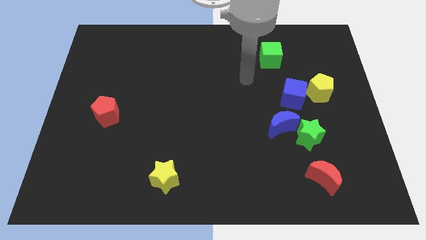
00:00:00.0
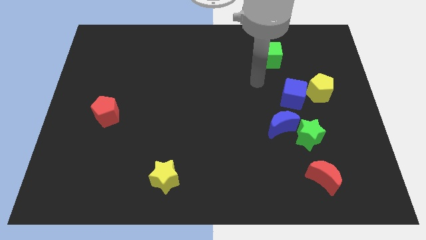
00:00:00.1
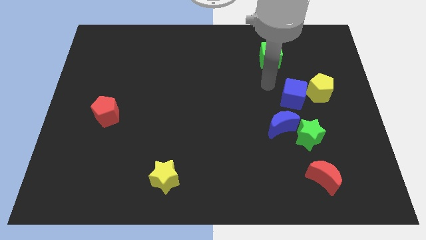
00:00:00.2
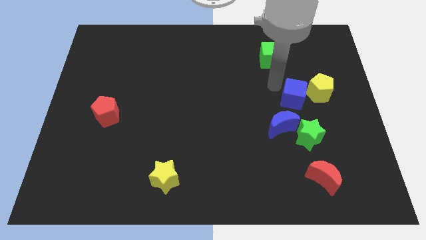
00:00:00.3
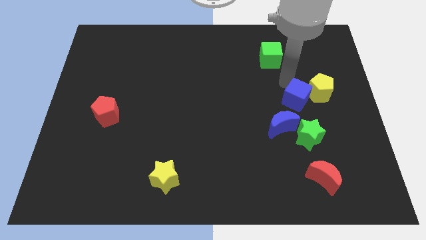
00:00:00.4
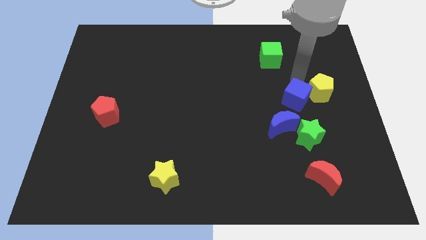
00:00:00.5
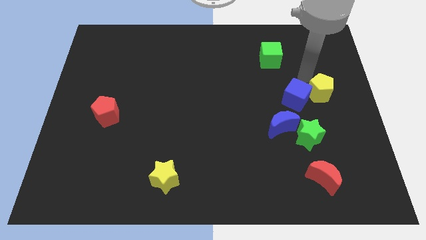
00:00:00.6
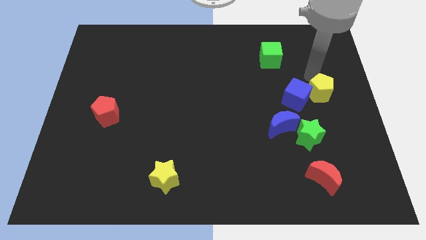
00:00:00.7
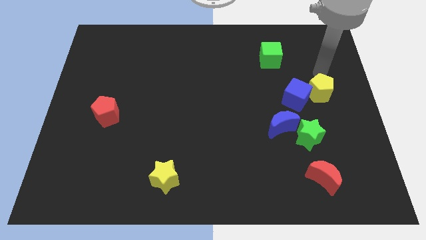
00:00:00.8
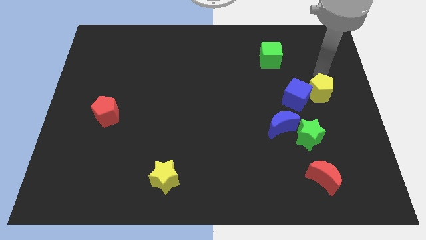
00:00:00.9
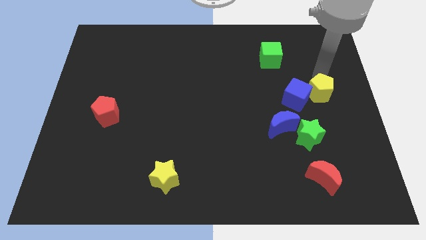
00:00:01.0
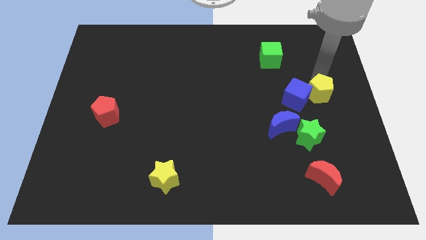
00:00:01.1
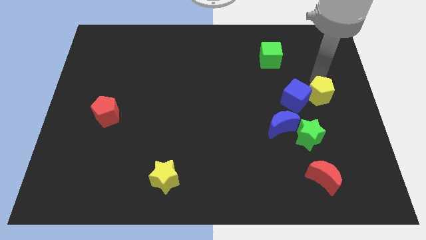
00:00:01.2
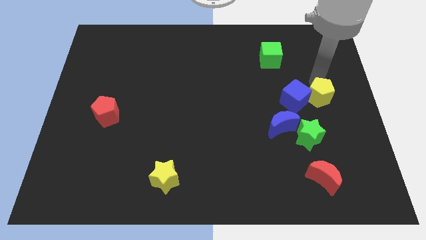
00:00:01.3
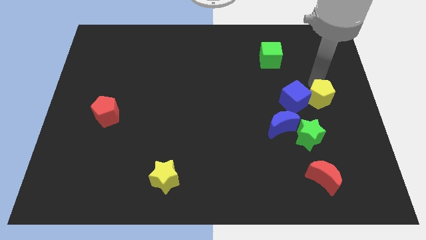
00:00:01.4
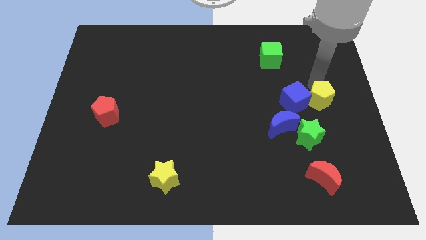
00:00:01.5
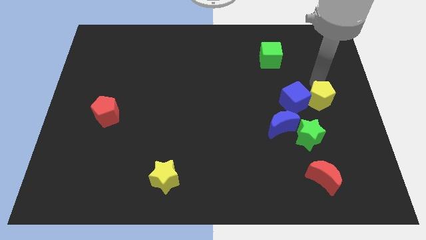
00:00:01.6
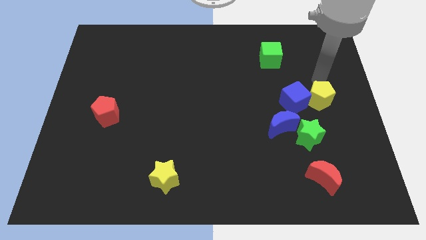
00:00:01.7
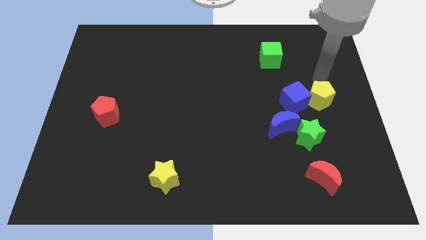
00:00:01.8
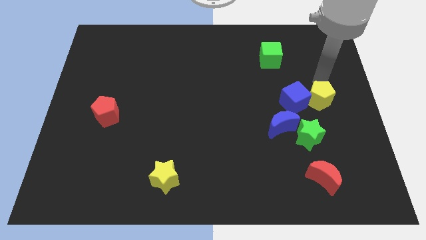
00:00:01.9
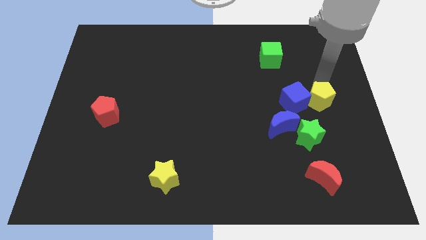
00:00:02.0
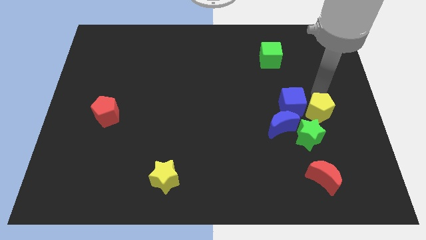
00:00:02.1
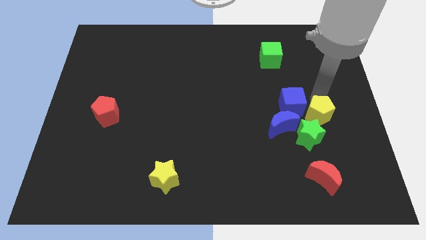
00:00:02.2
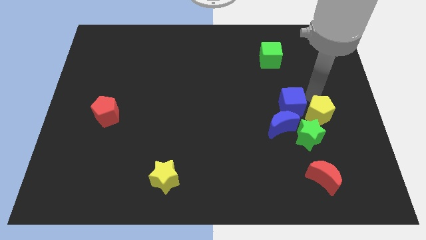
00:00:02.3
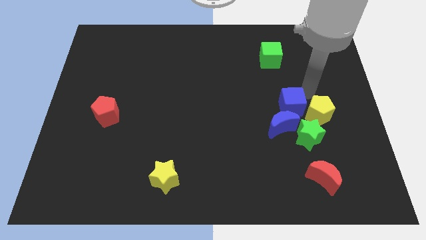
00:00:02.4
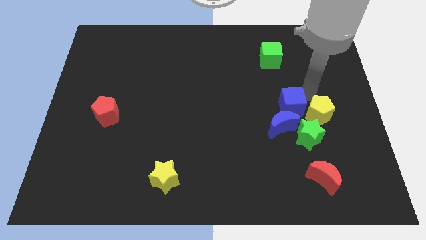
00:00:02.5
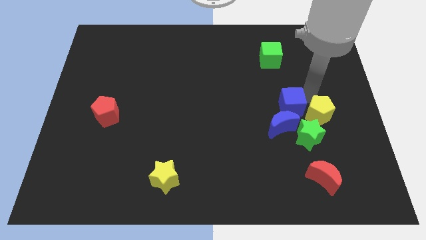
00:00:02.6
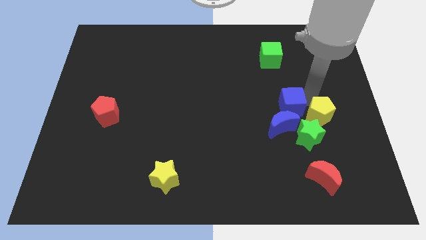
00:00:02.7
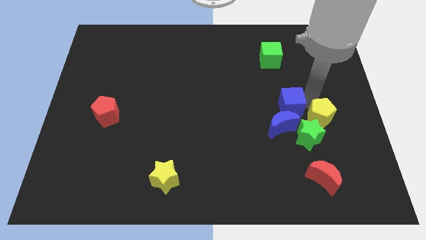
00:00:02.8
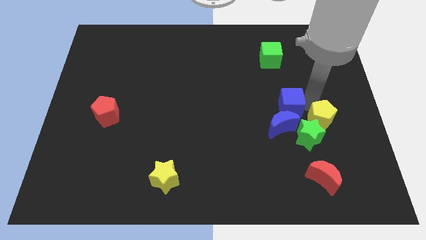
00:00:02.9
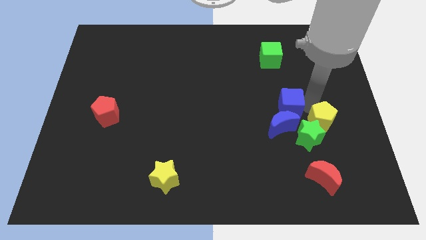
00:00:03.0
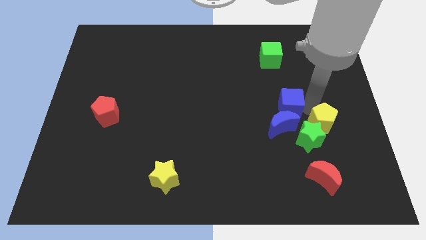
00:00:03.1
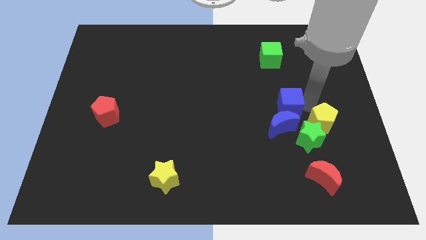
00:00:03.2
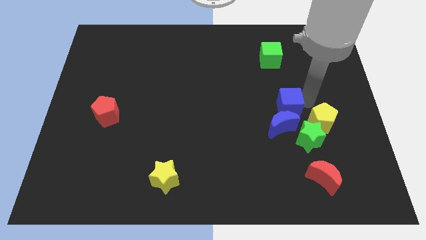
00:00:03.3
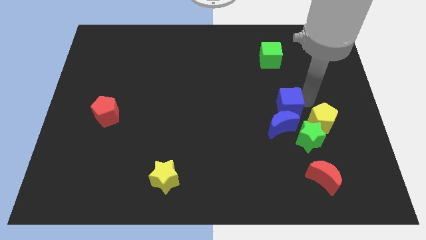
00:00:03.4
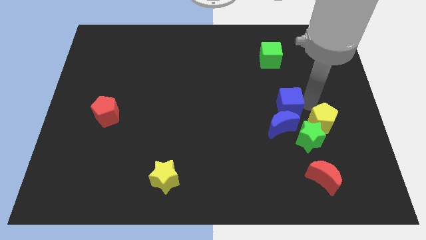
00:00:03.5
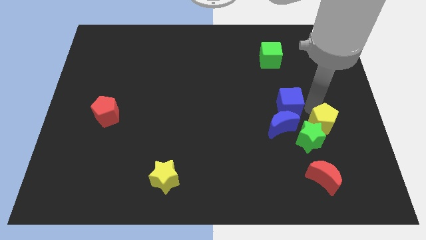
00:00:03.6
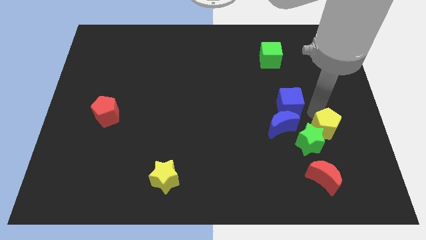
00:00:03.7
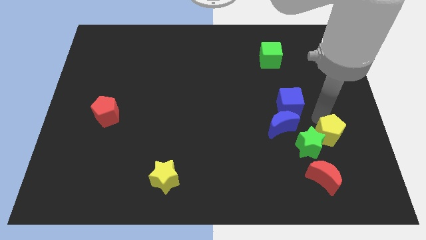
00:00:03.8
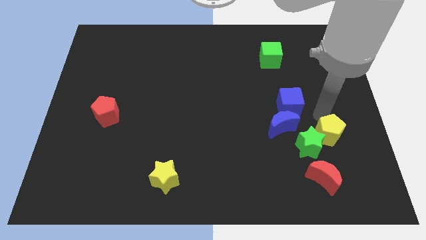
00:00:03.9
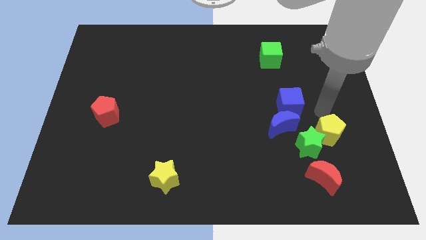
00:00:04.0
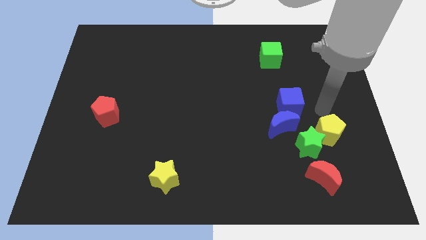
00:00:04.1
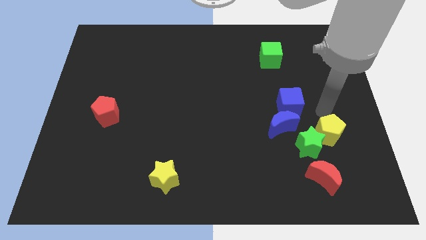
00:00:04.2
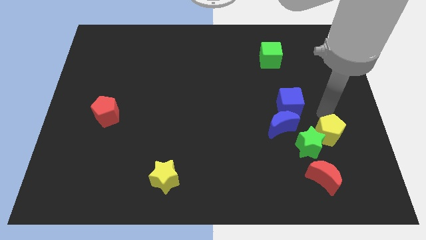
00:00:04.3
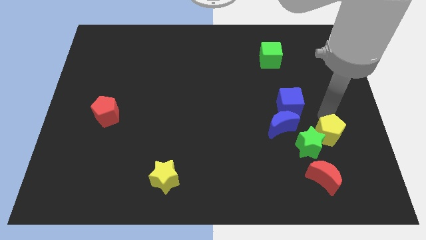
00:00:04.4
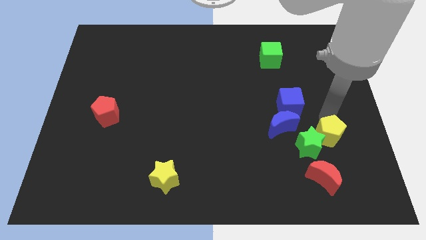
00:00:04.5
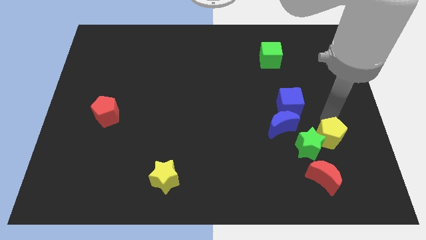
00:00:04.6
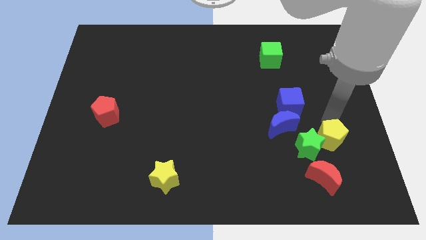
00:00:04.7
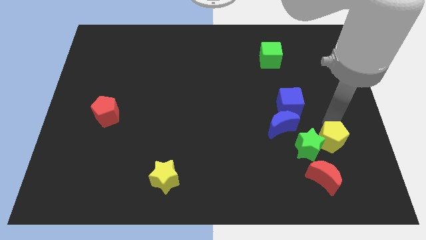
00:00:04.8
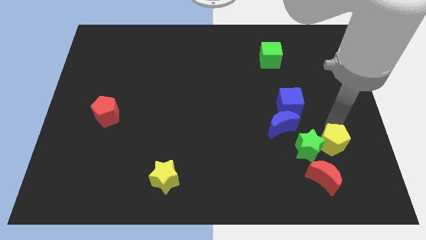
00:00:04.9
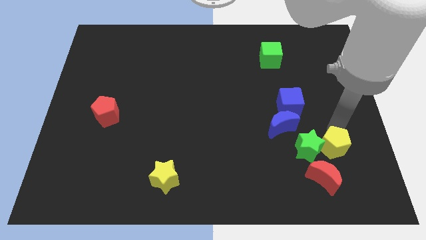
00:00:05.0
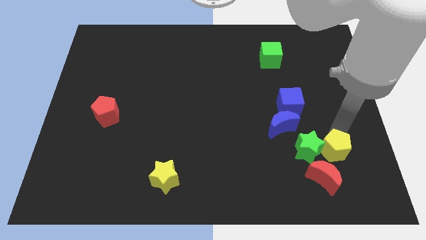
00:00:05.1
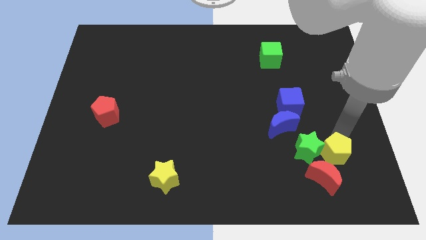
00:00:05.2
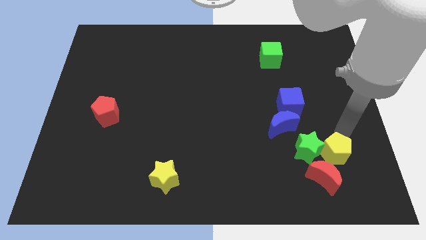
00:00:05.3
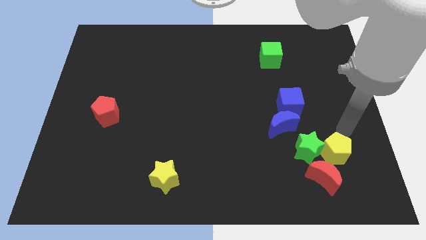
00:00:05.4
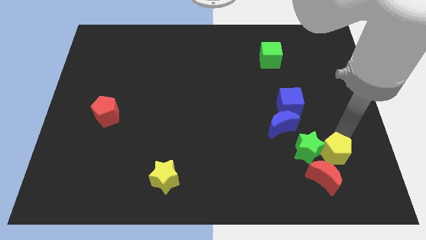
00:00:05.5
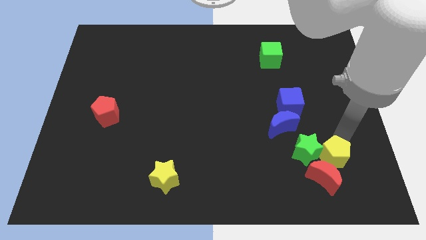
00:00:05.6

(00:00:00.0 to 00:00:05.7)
slide the yellow pentagon next to the red moon

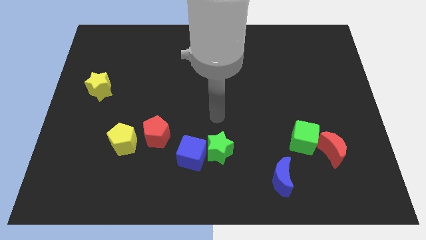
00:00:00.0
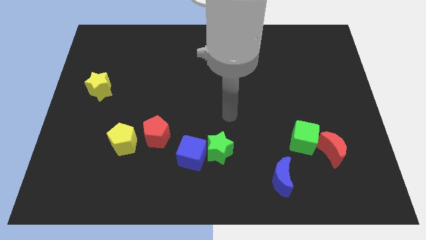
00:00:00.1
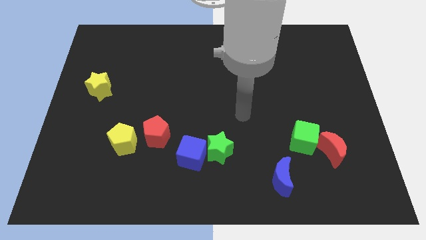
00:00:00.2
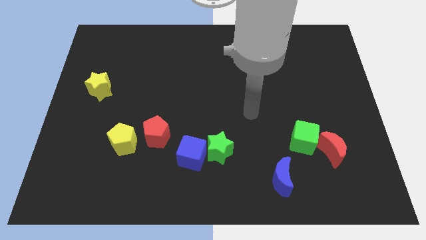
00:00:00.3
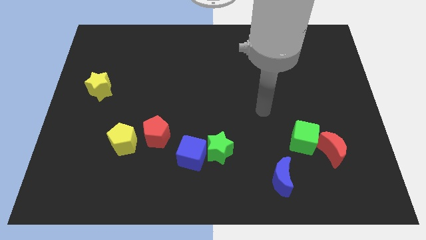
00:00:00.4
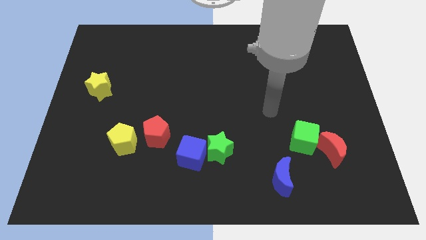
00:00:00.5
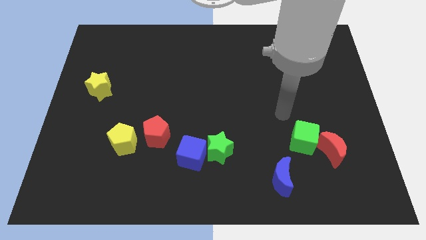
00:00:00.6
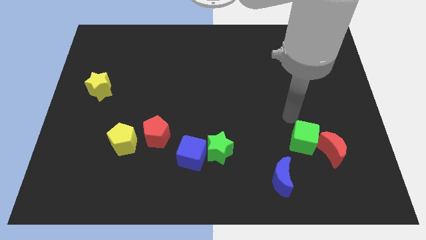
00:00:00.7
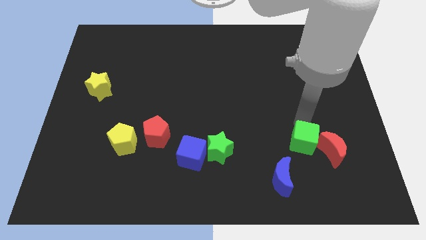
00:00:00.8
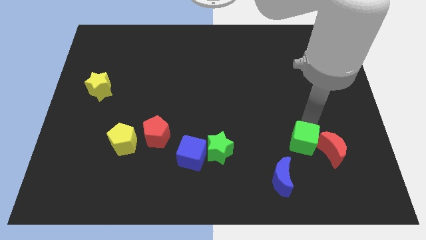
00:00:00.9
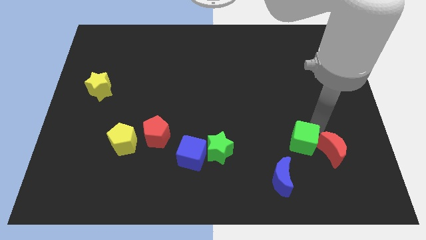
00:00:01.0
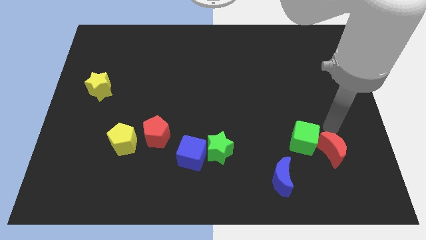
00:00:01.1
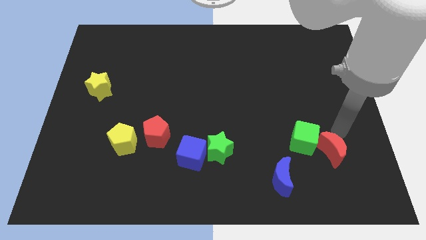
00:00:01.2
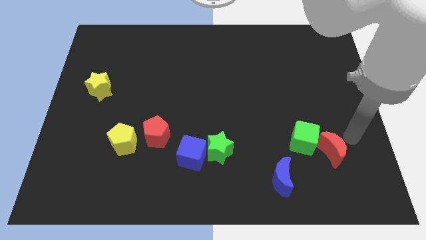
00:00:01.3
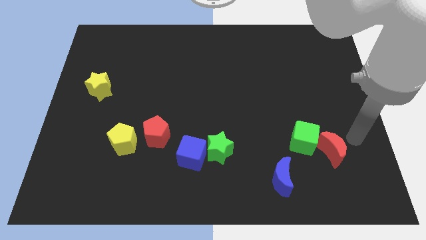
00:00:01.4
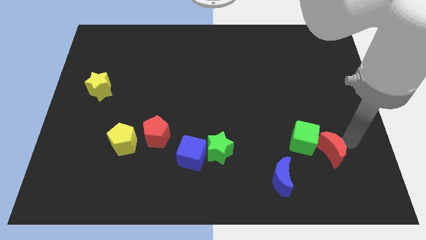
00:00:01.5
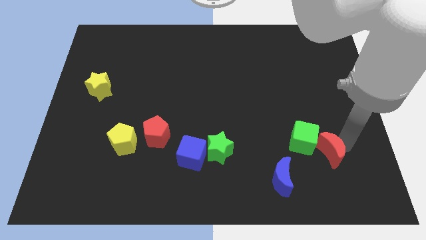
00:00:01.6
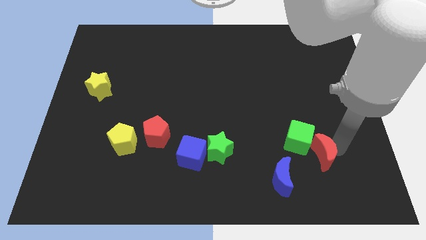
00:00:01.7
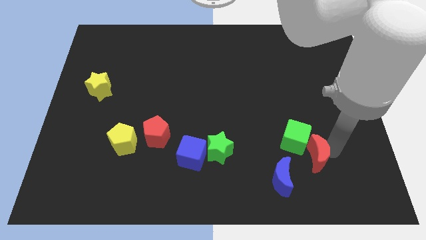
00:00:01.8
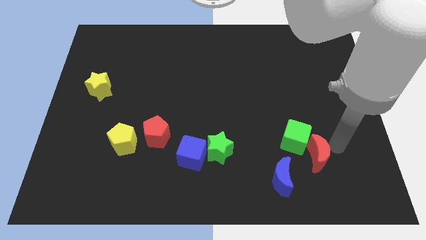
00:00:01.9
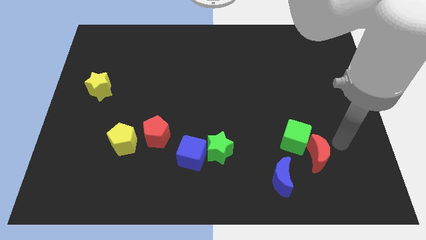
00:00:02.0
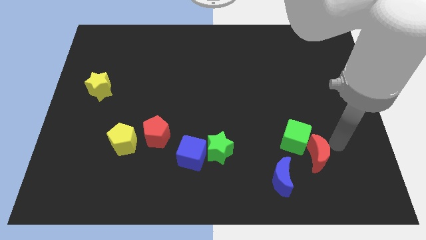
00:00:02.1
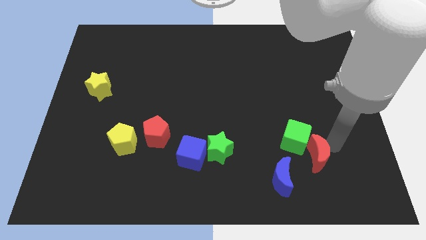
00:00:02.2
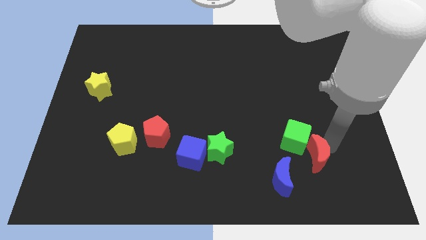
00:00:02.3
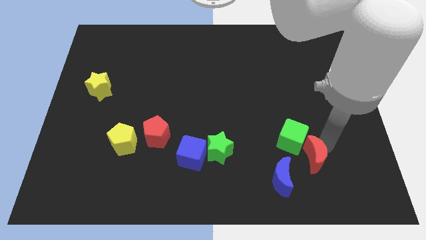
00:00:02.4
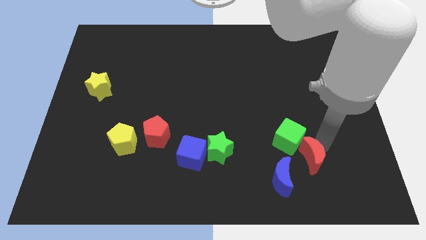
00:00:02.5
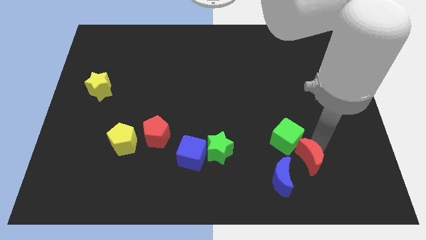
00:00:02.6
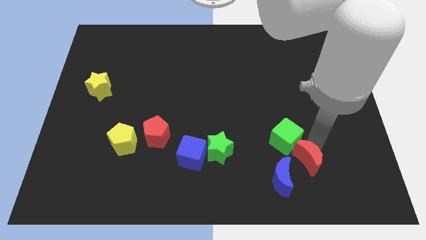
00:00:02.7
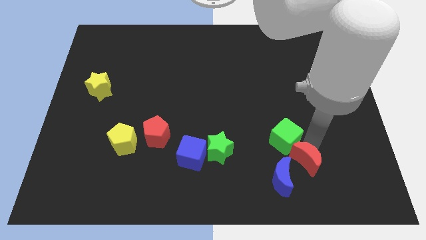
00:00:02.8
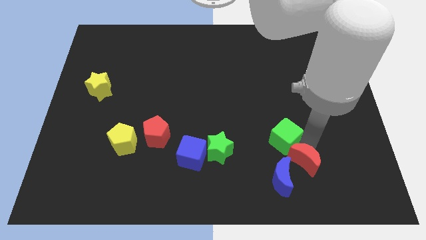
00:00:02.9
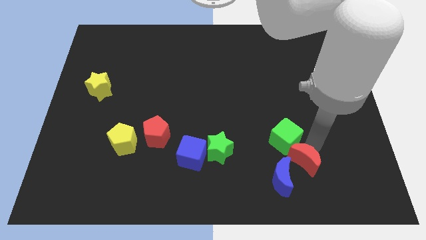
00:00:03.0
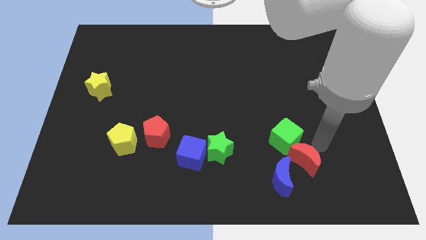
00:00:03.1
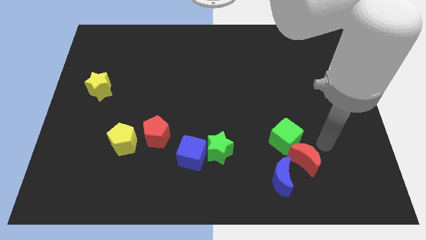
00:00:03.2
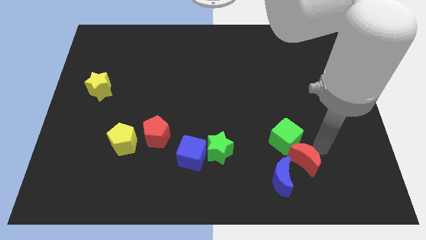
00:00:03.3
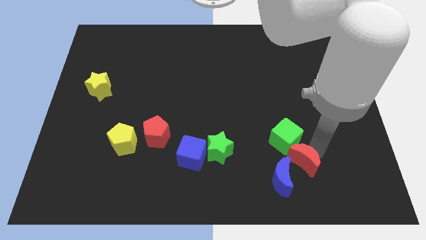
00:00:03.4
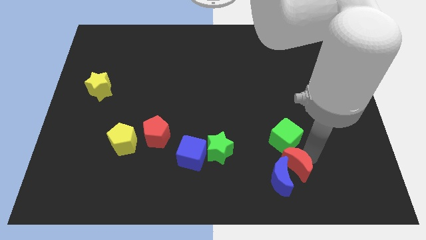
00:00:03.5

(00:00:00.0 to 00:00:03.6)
slide the red moon towards the blue moon
